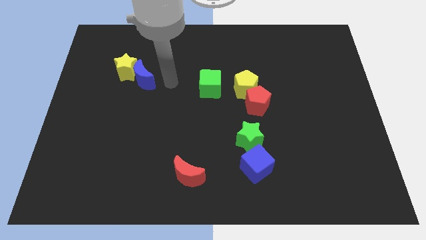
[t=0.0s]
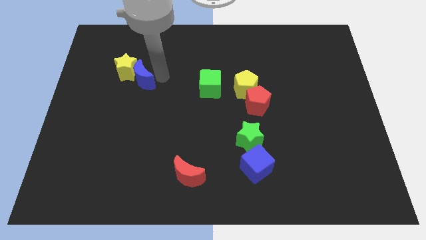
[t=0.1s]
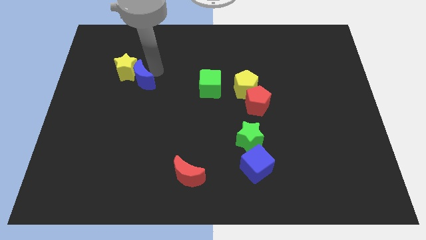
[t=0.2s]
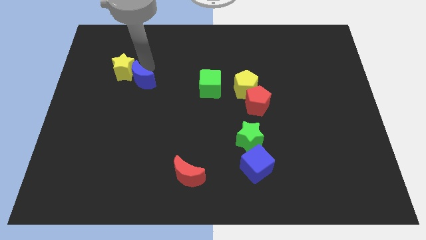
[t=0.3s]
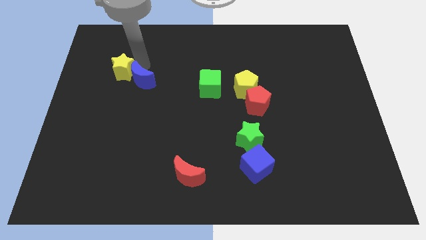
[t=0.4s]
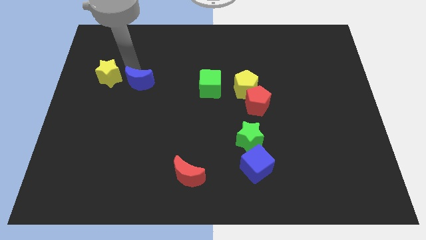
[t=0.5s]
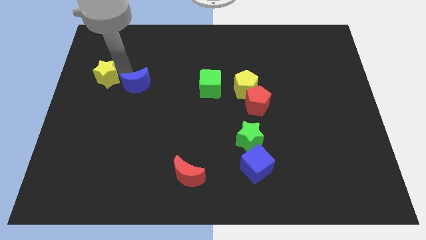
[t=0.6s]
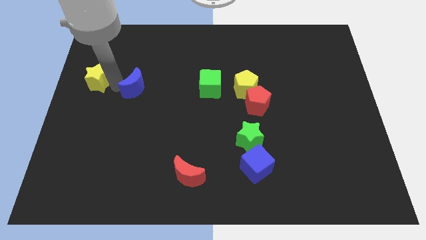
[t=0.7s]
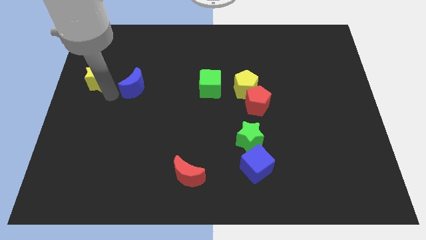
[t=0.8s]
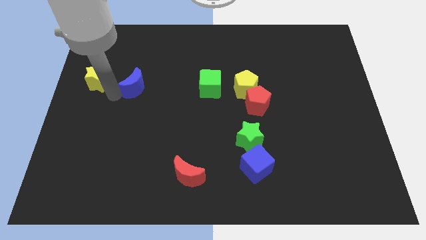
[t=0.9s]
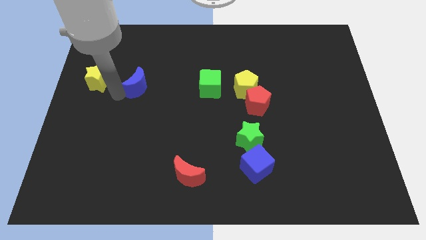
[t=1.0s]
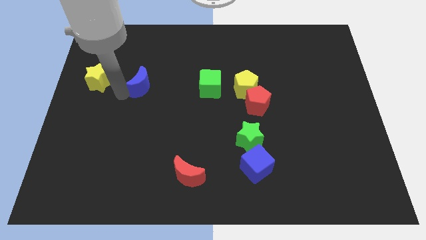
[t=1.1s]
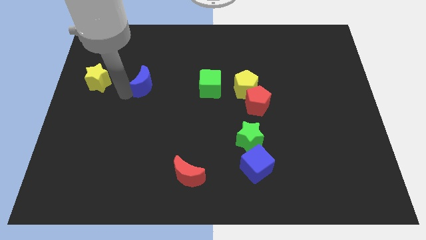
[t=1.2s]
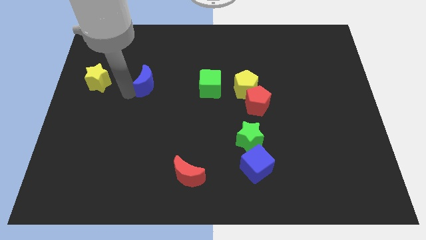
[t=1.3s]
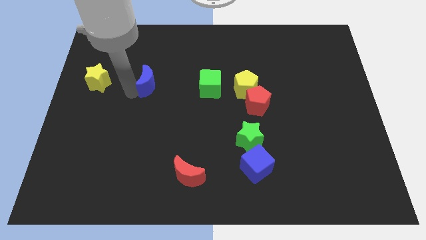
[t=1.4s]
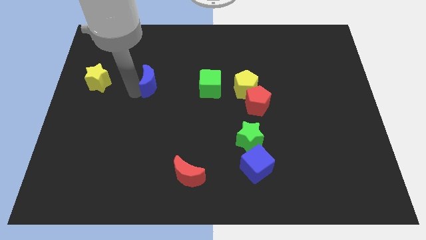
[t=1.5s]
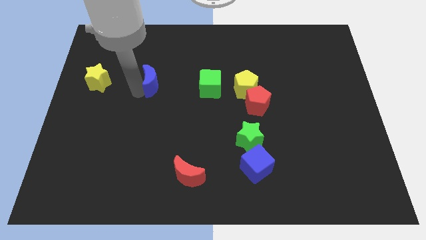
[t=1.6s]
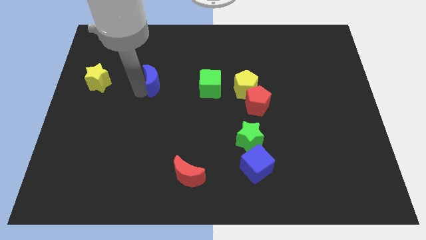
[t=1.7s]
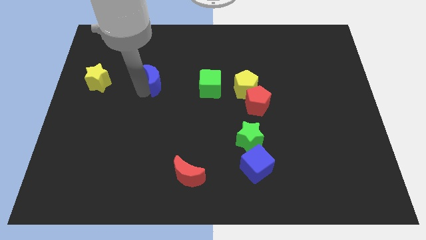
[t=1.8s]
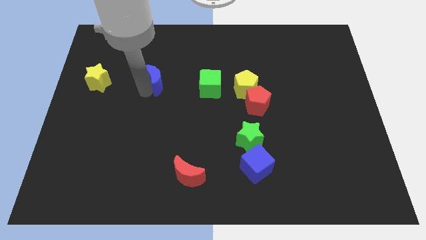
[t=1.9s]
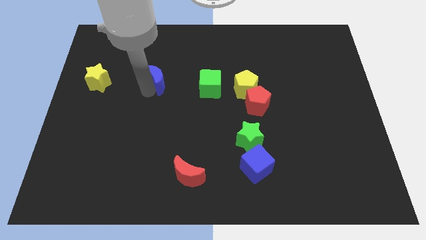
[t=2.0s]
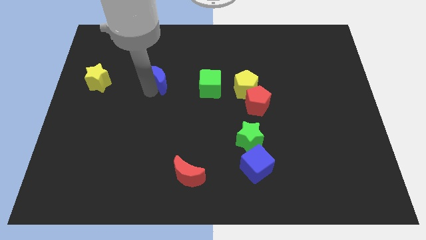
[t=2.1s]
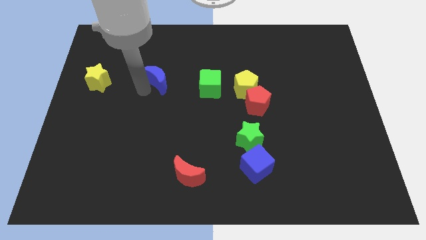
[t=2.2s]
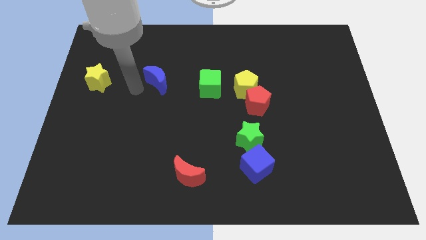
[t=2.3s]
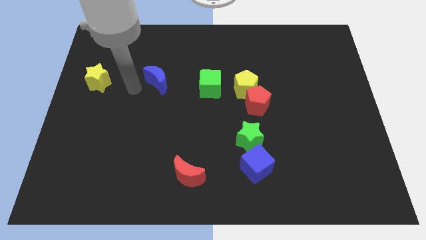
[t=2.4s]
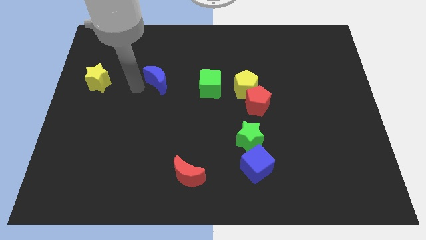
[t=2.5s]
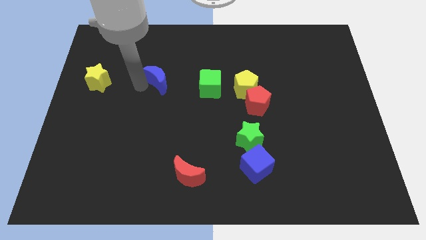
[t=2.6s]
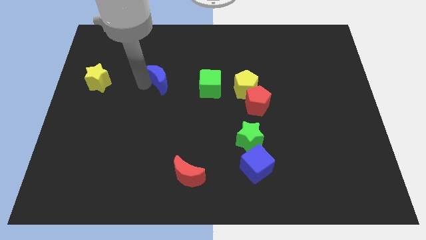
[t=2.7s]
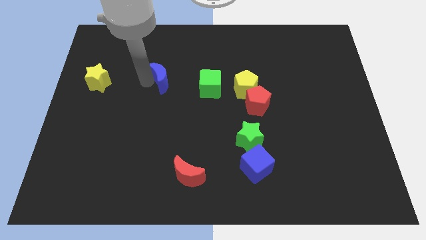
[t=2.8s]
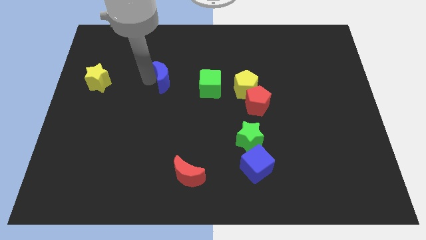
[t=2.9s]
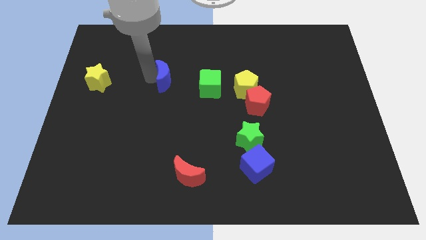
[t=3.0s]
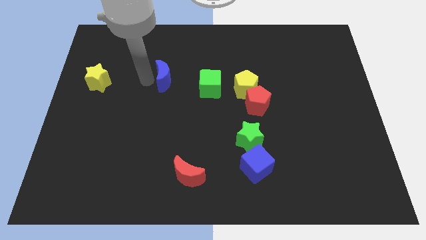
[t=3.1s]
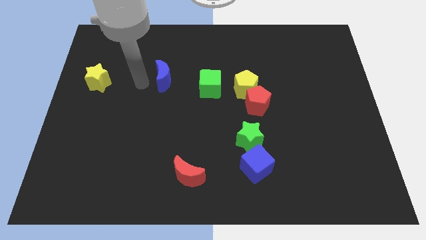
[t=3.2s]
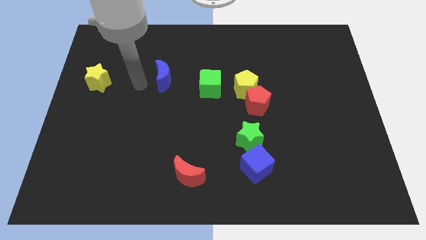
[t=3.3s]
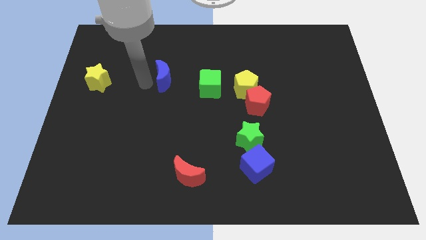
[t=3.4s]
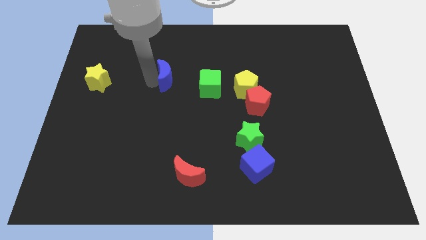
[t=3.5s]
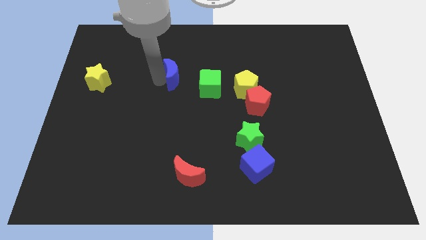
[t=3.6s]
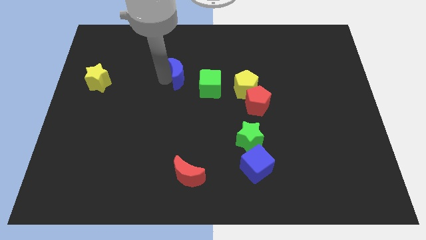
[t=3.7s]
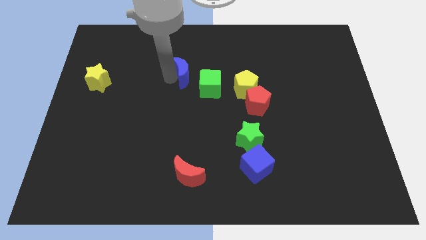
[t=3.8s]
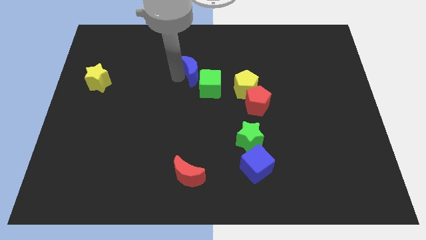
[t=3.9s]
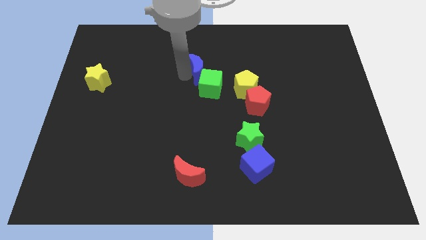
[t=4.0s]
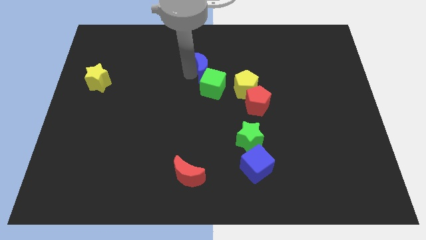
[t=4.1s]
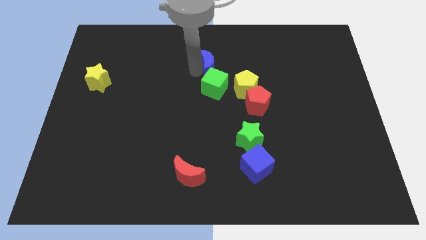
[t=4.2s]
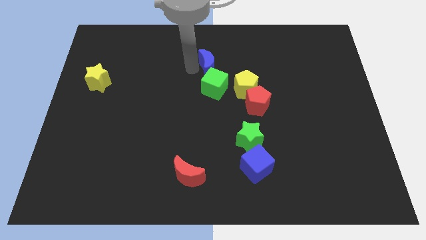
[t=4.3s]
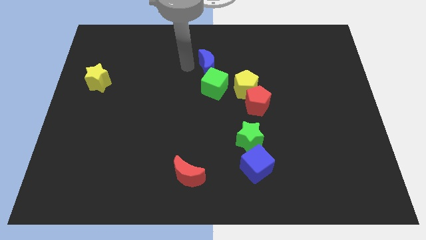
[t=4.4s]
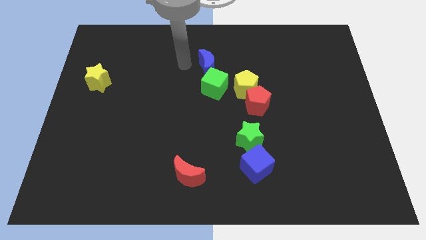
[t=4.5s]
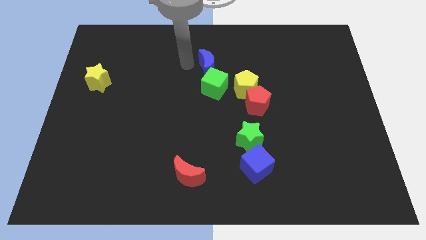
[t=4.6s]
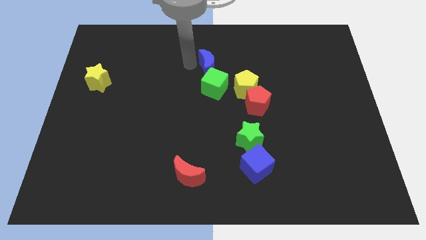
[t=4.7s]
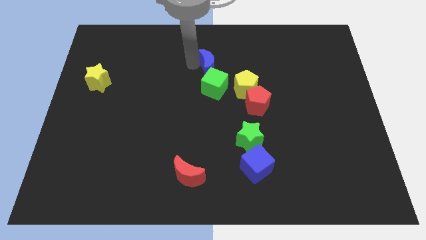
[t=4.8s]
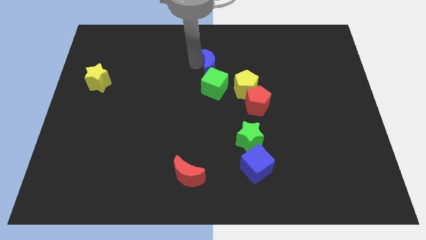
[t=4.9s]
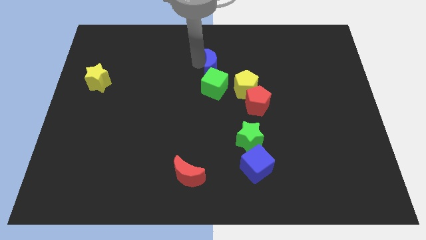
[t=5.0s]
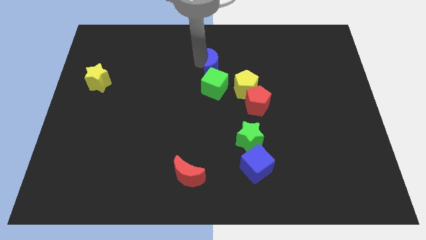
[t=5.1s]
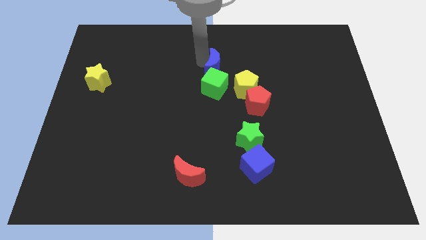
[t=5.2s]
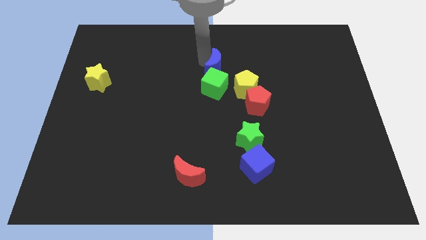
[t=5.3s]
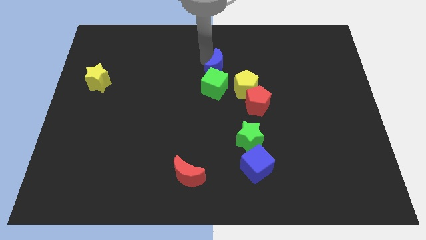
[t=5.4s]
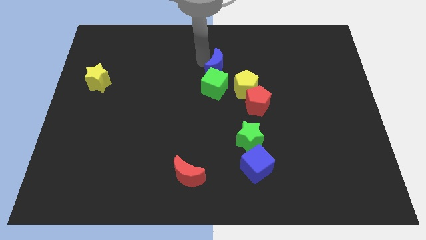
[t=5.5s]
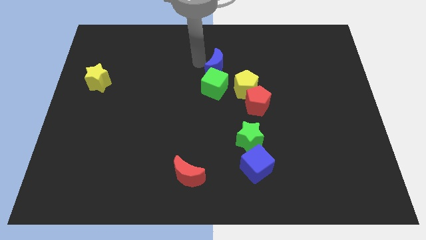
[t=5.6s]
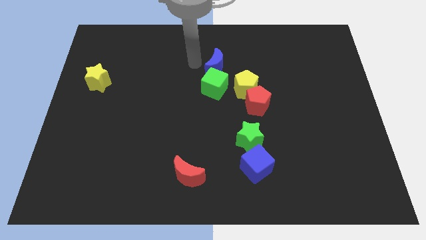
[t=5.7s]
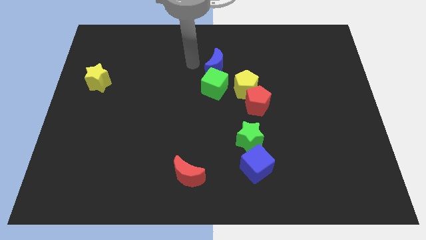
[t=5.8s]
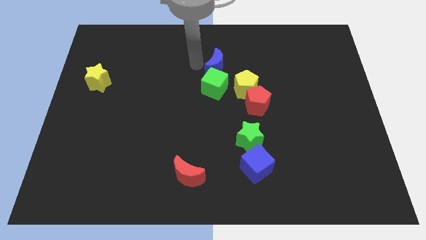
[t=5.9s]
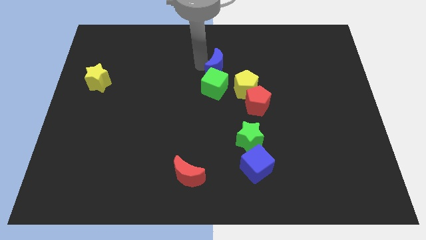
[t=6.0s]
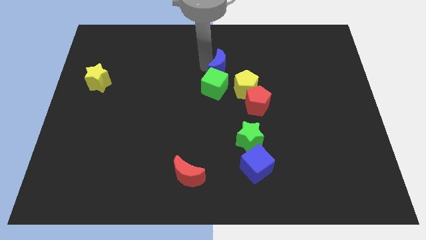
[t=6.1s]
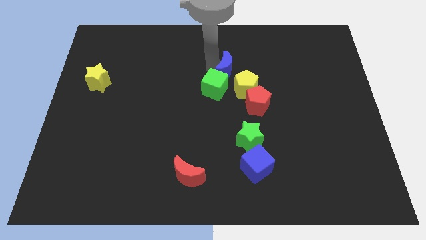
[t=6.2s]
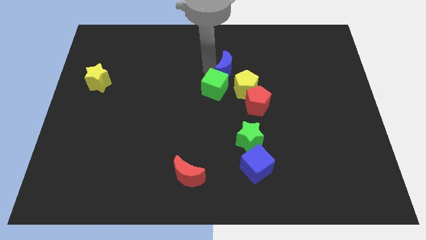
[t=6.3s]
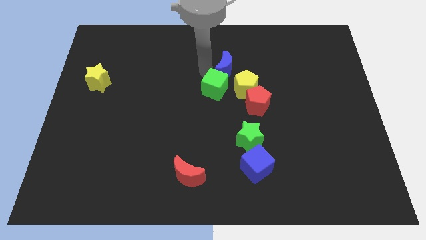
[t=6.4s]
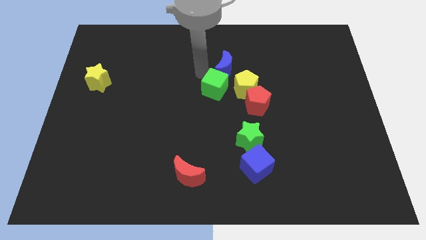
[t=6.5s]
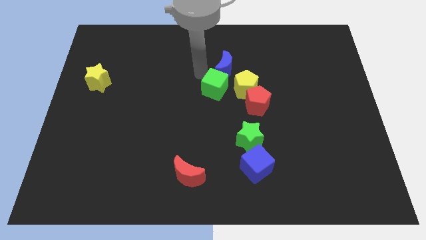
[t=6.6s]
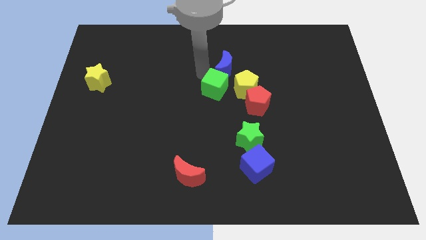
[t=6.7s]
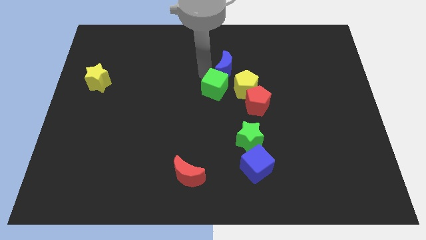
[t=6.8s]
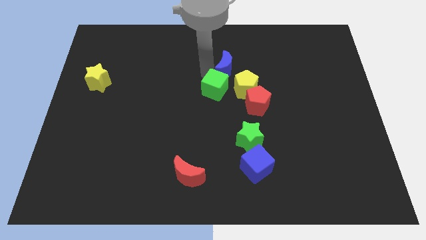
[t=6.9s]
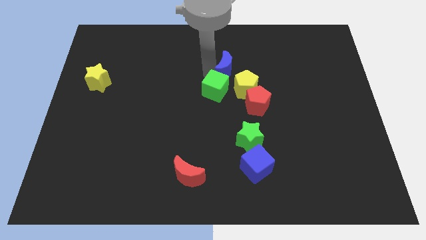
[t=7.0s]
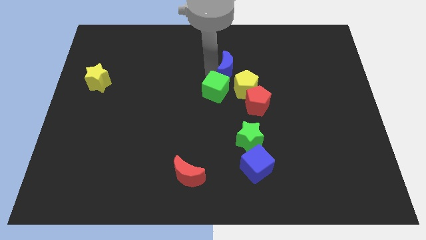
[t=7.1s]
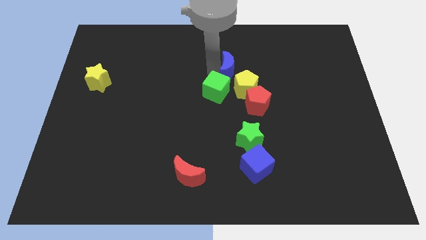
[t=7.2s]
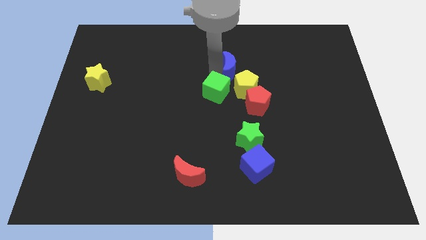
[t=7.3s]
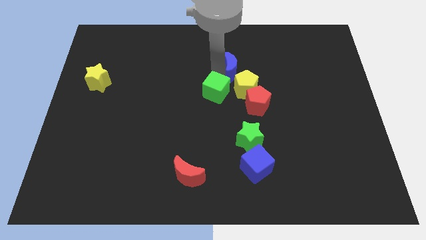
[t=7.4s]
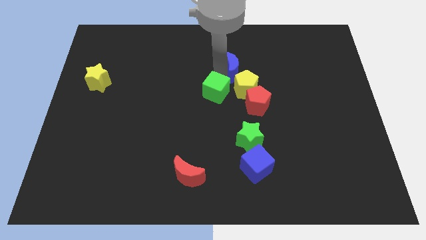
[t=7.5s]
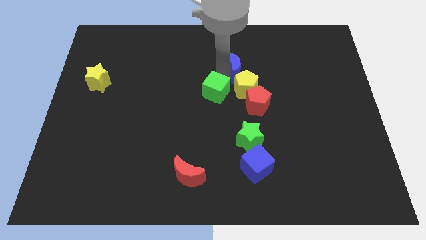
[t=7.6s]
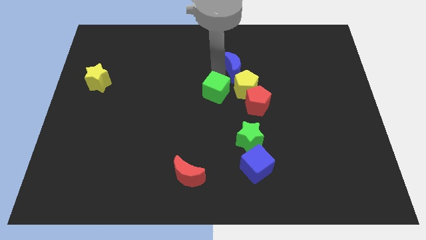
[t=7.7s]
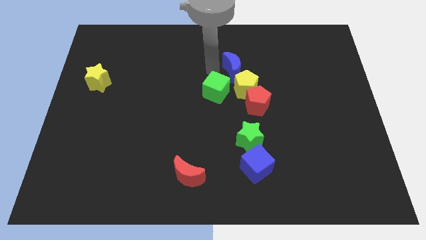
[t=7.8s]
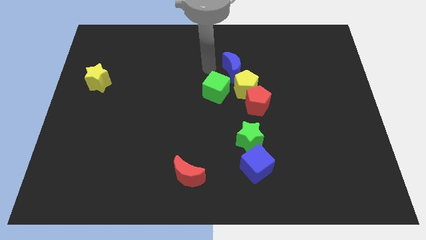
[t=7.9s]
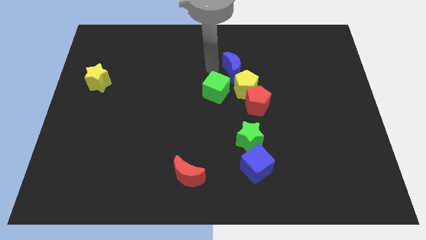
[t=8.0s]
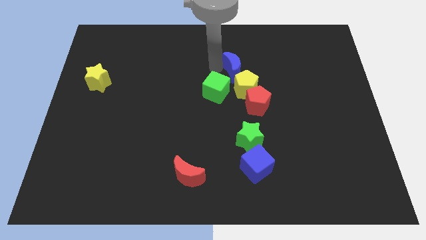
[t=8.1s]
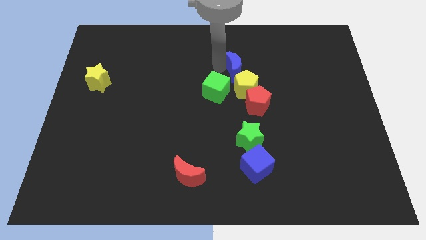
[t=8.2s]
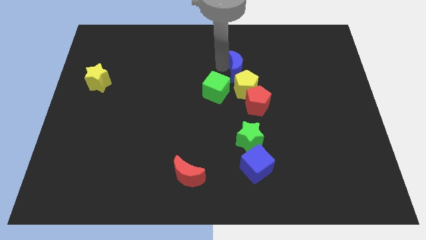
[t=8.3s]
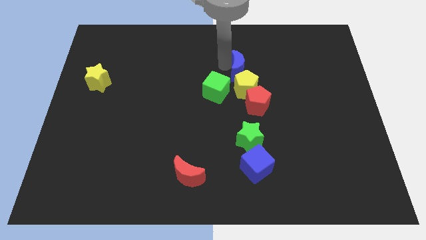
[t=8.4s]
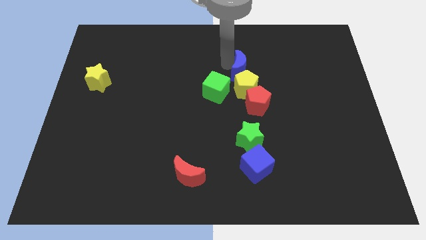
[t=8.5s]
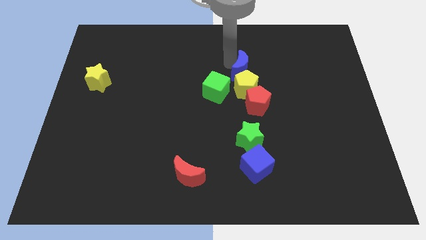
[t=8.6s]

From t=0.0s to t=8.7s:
slide the blue moon diagonally up and to the right of the yellow pentagon
